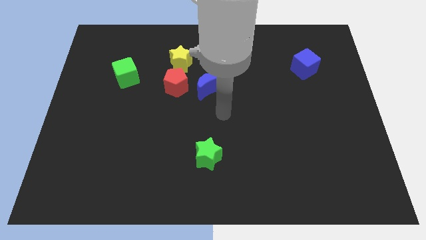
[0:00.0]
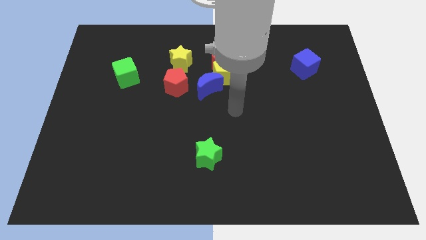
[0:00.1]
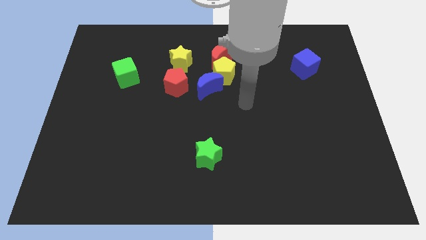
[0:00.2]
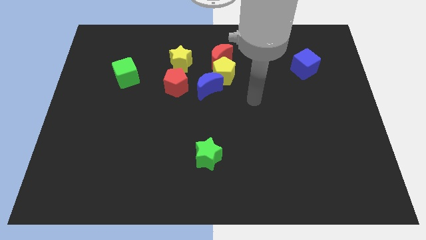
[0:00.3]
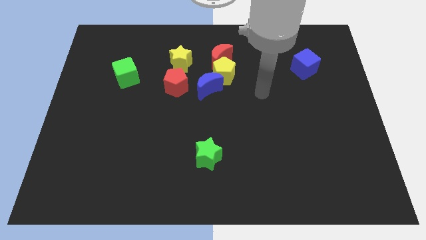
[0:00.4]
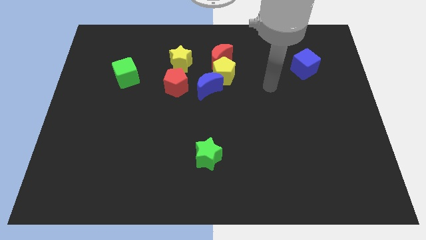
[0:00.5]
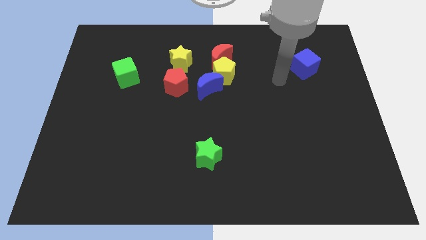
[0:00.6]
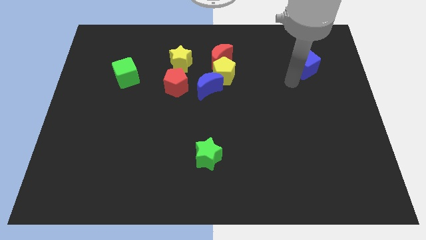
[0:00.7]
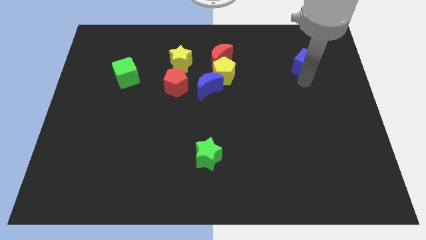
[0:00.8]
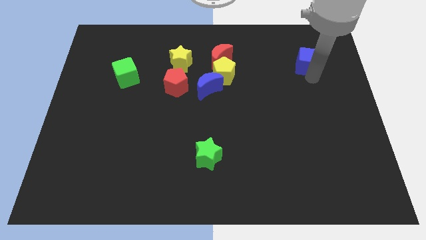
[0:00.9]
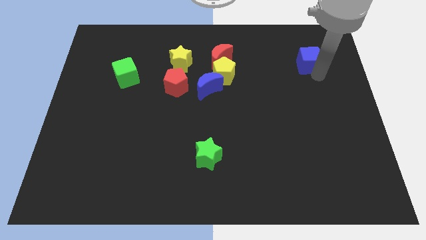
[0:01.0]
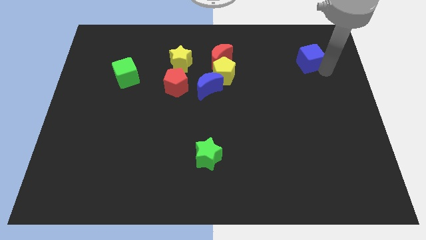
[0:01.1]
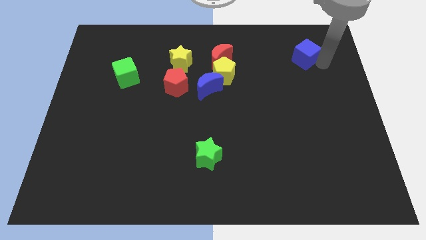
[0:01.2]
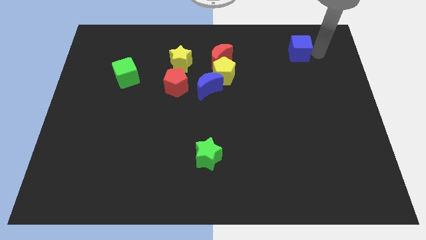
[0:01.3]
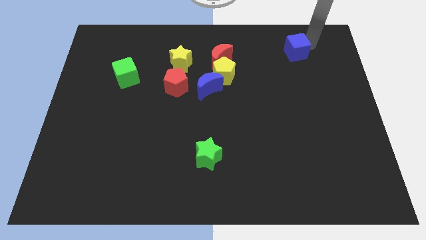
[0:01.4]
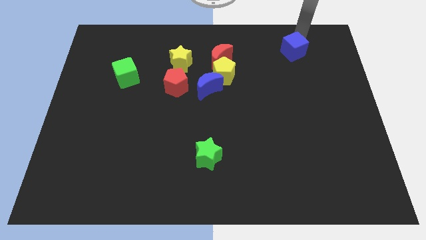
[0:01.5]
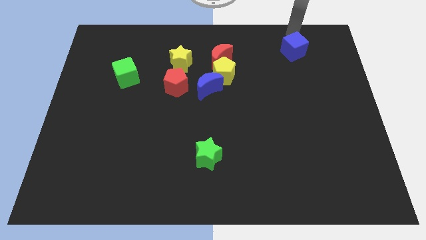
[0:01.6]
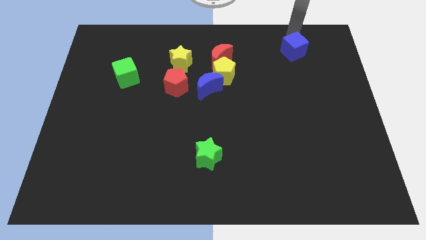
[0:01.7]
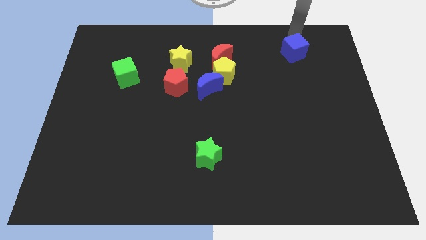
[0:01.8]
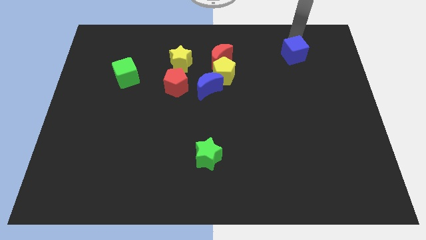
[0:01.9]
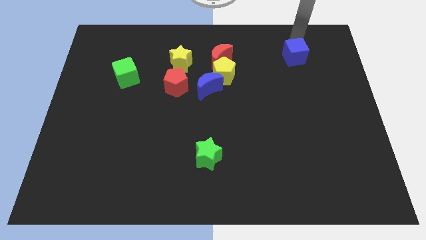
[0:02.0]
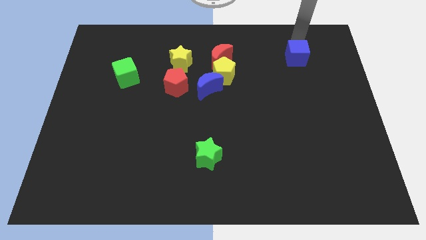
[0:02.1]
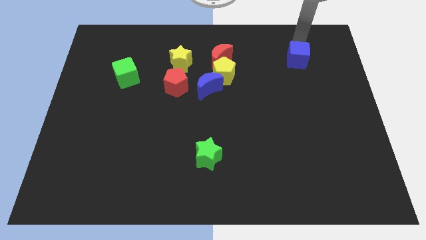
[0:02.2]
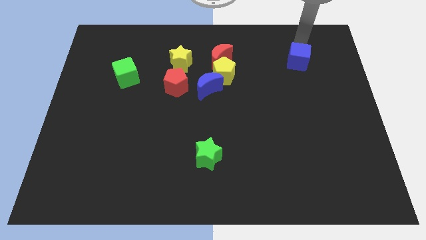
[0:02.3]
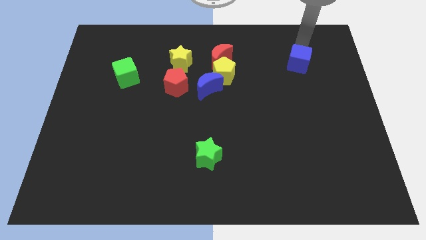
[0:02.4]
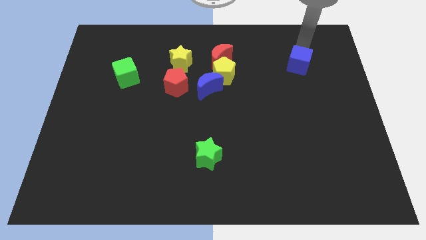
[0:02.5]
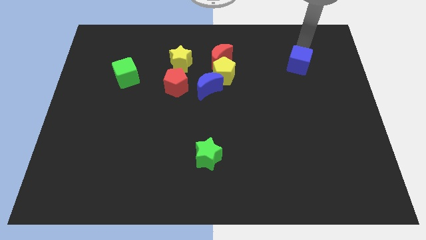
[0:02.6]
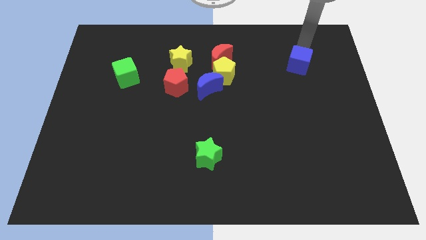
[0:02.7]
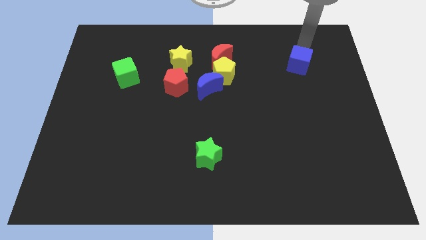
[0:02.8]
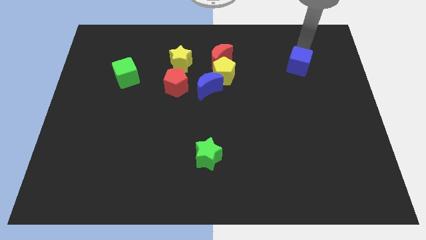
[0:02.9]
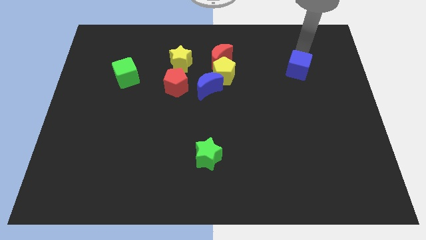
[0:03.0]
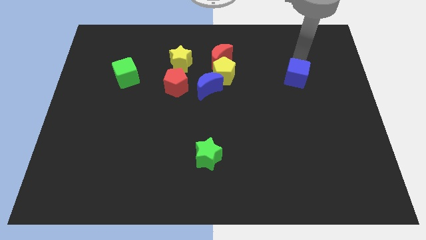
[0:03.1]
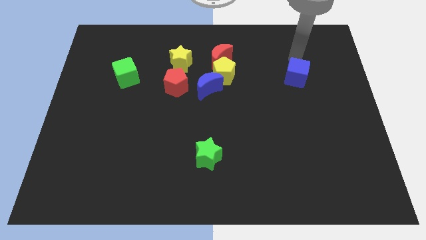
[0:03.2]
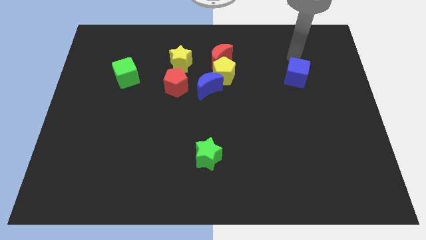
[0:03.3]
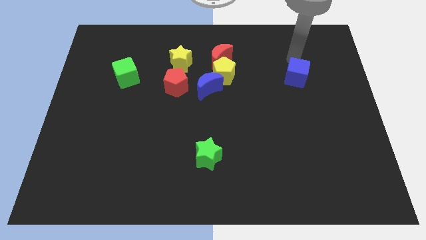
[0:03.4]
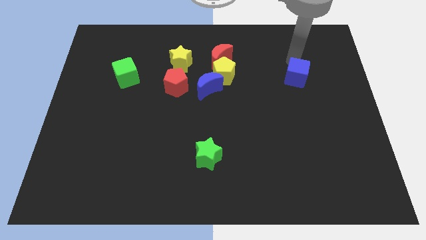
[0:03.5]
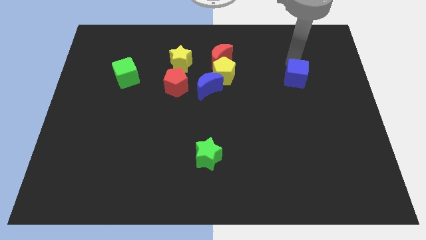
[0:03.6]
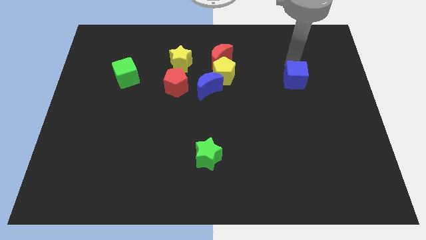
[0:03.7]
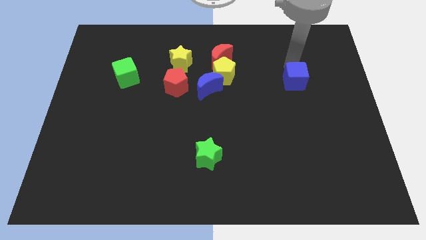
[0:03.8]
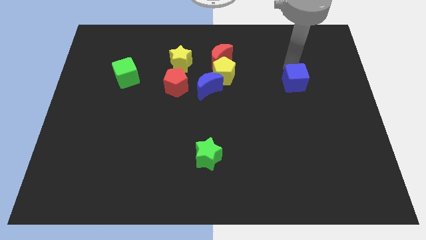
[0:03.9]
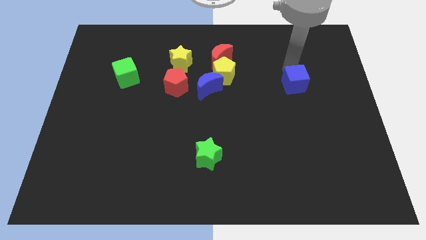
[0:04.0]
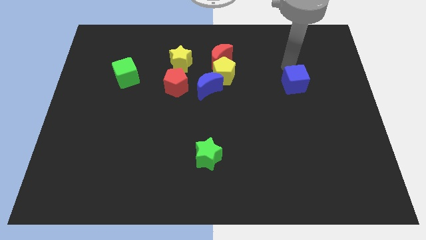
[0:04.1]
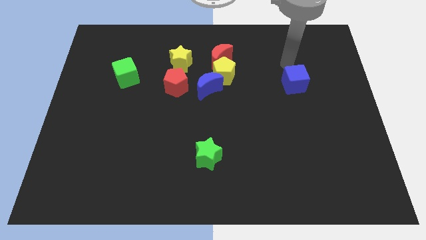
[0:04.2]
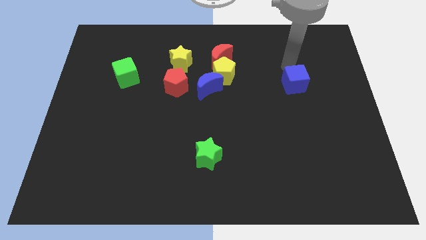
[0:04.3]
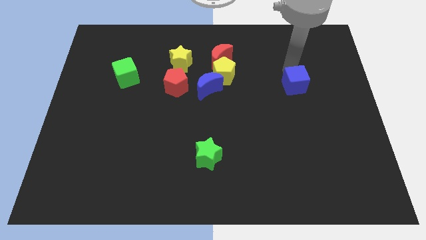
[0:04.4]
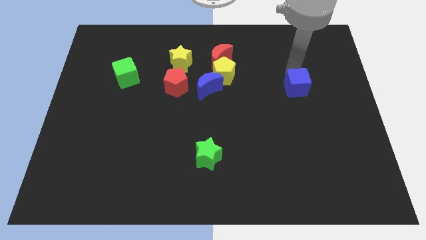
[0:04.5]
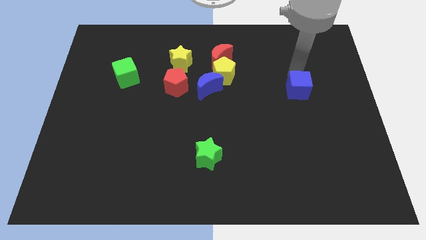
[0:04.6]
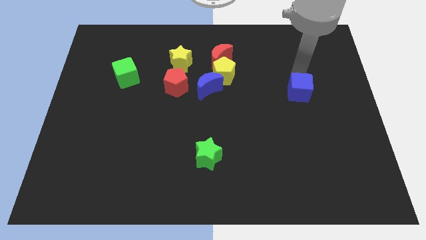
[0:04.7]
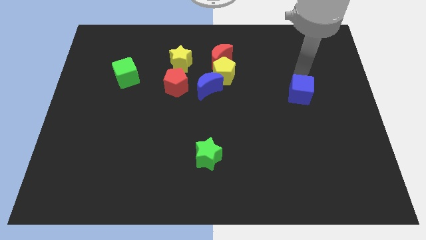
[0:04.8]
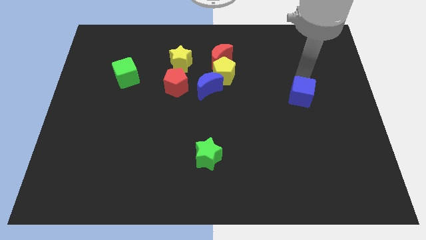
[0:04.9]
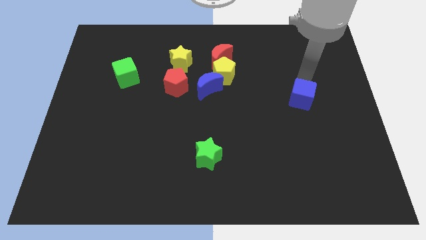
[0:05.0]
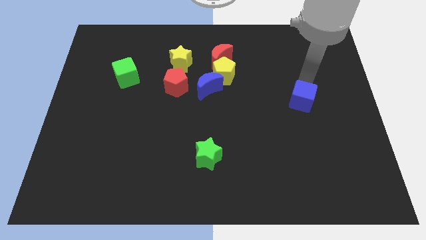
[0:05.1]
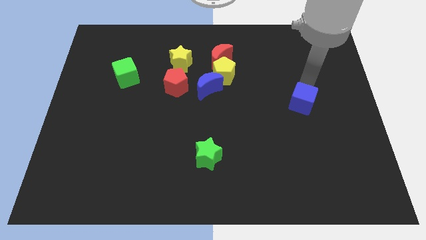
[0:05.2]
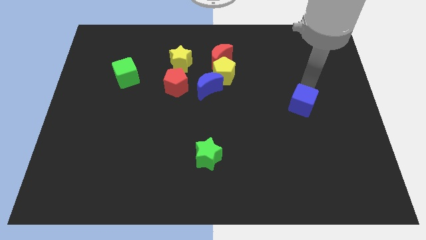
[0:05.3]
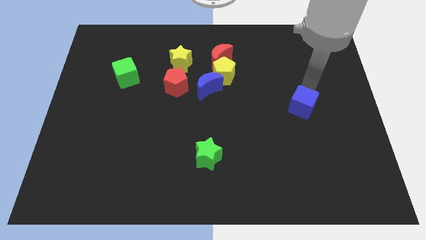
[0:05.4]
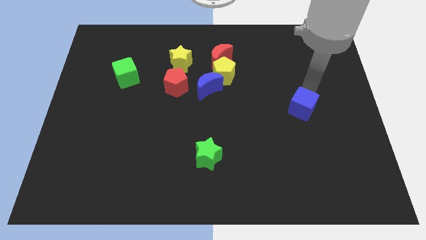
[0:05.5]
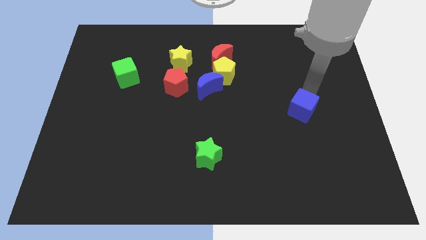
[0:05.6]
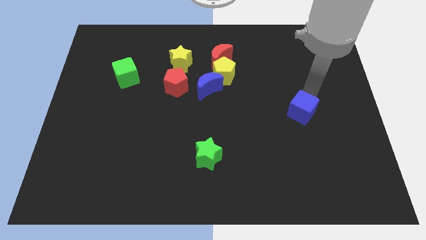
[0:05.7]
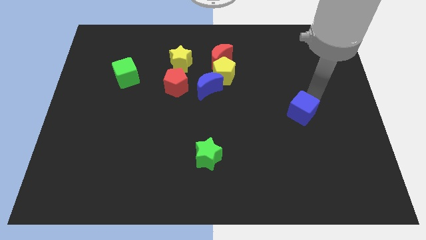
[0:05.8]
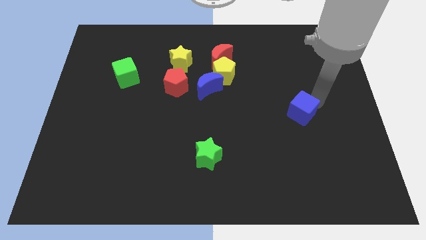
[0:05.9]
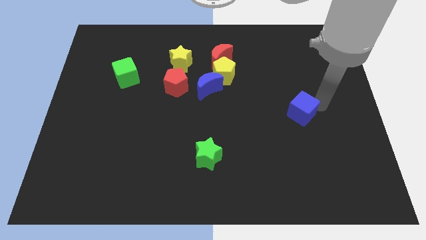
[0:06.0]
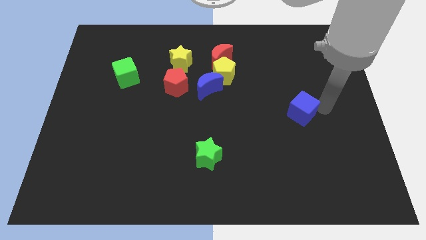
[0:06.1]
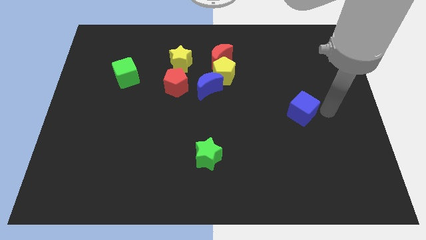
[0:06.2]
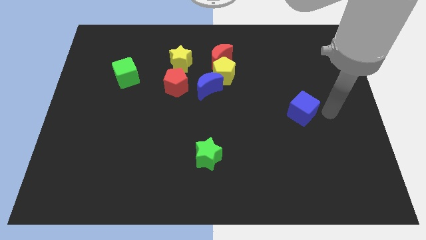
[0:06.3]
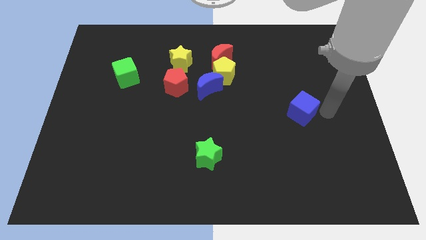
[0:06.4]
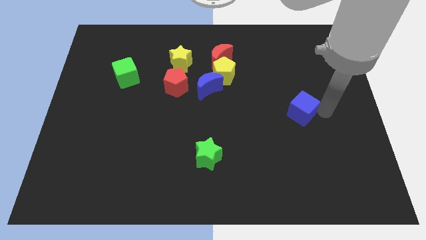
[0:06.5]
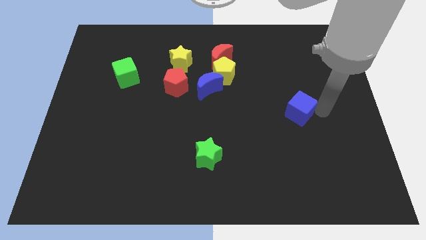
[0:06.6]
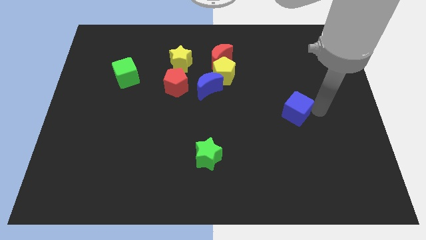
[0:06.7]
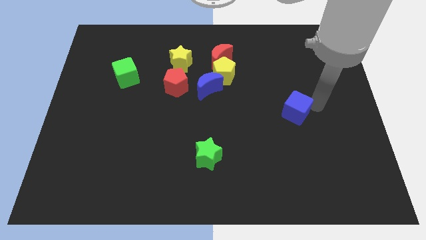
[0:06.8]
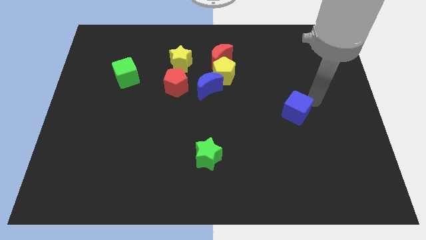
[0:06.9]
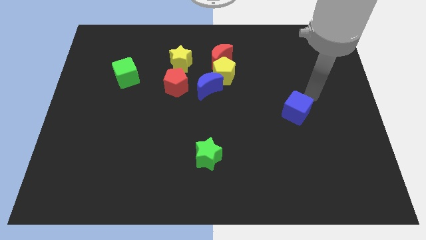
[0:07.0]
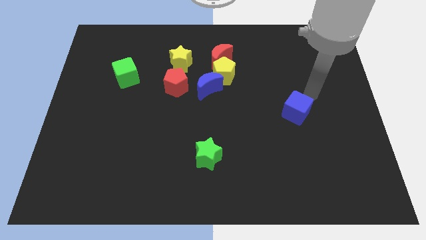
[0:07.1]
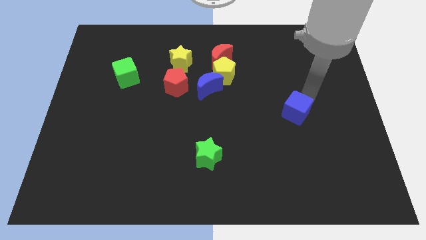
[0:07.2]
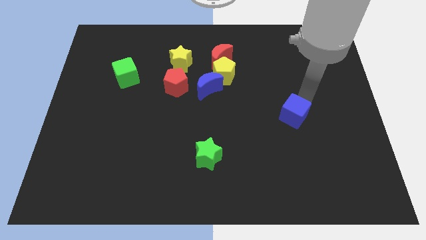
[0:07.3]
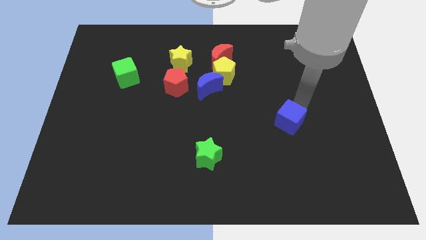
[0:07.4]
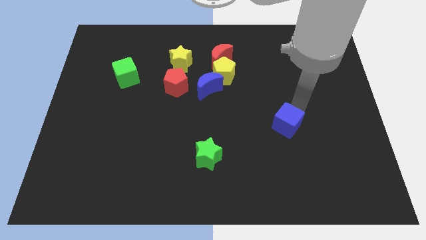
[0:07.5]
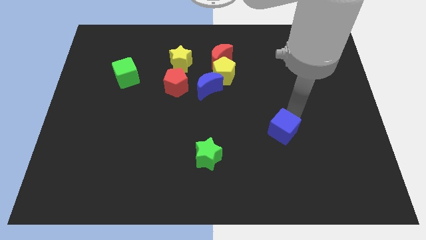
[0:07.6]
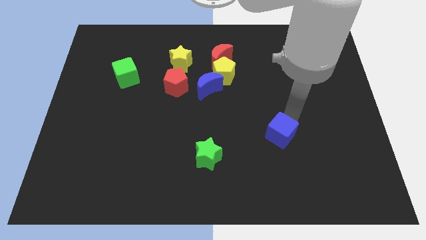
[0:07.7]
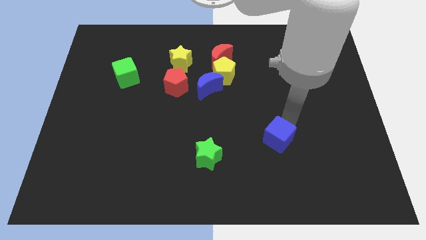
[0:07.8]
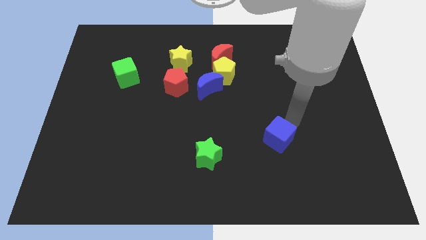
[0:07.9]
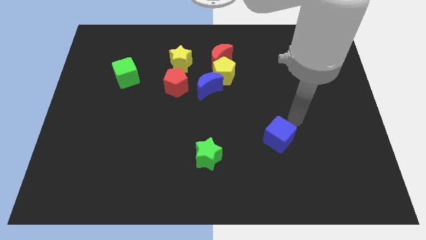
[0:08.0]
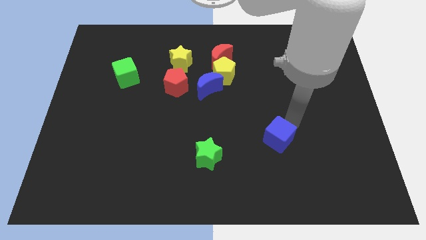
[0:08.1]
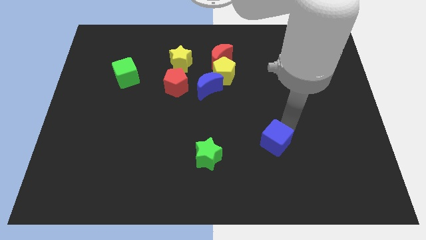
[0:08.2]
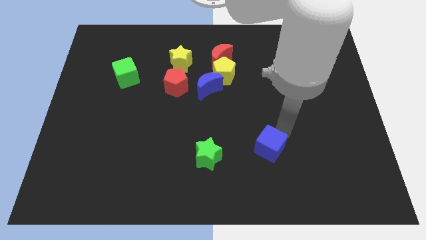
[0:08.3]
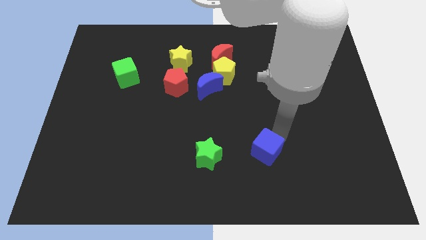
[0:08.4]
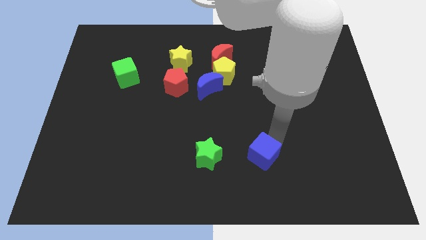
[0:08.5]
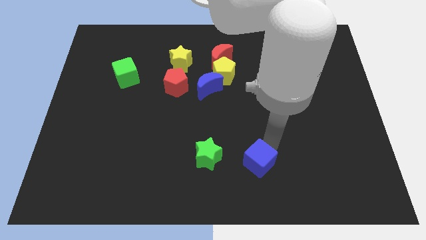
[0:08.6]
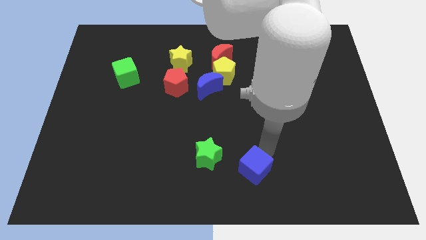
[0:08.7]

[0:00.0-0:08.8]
put the blue cube to the bottom
